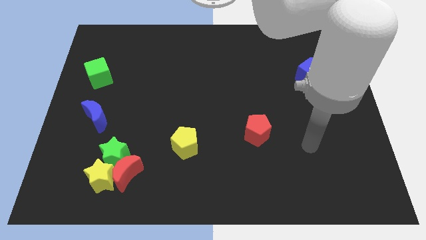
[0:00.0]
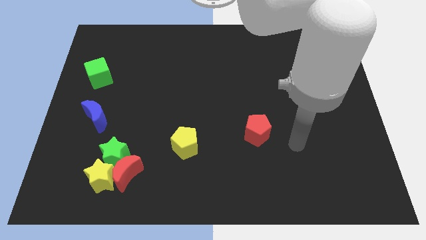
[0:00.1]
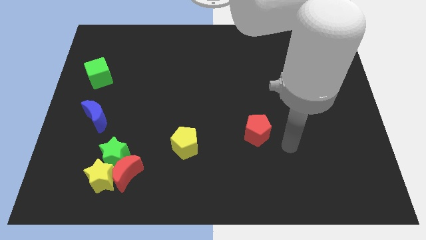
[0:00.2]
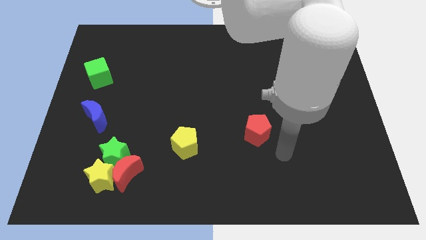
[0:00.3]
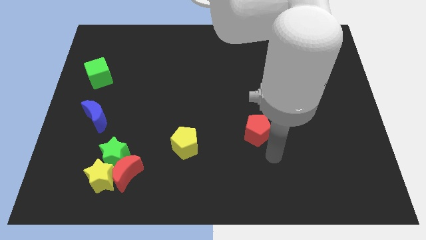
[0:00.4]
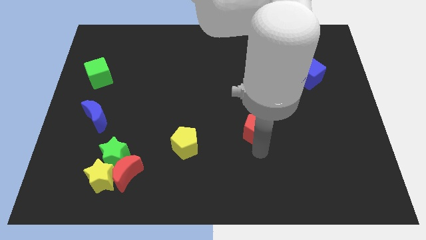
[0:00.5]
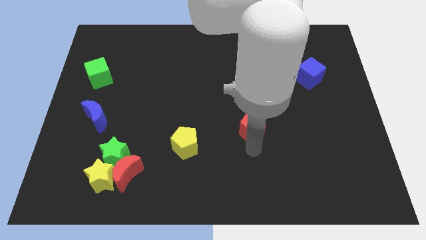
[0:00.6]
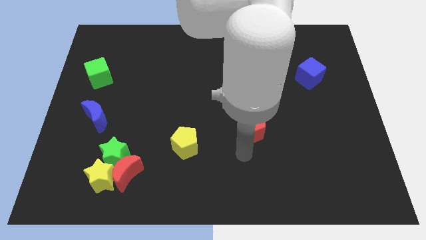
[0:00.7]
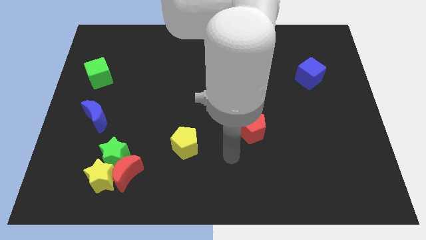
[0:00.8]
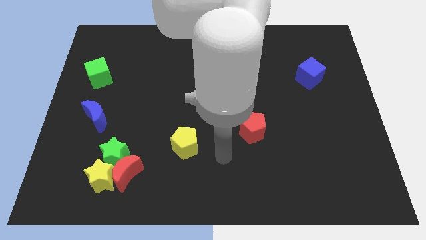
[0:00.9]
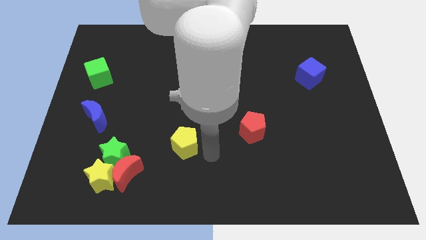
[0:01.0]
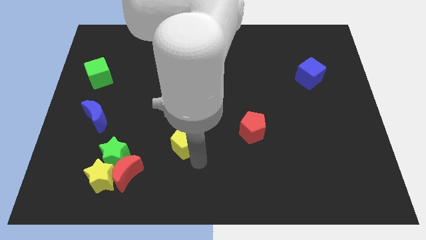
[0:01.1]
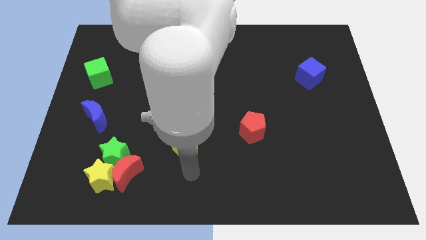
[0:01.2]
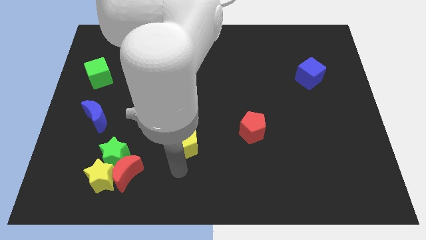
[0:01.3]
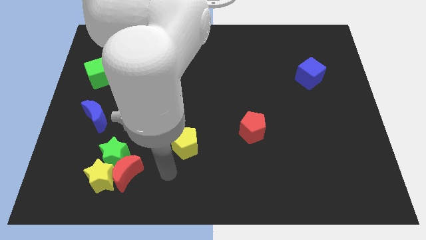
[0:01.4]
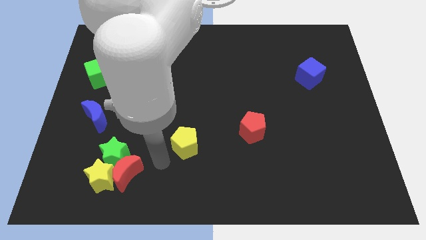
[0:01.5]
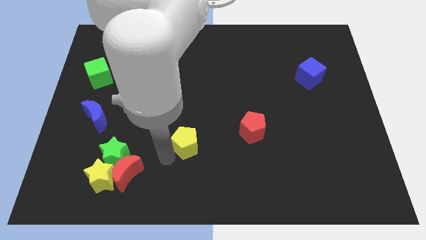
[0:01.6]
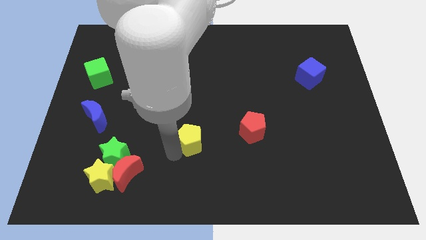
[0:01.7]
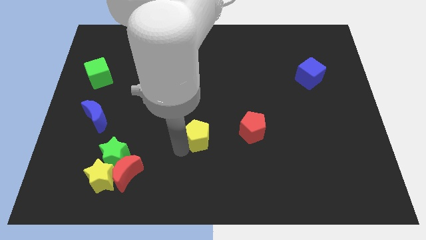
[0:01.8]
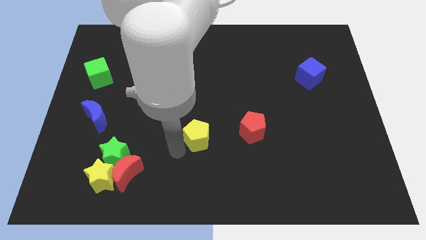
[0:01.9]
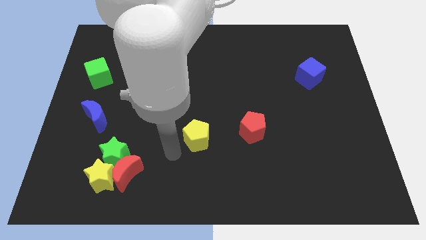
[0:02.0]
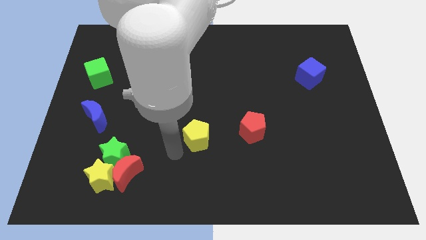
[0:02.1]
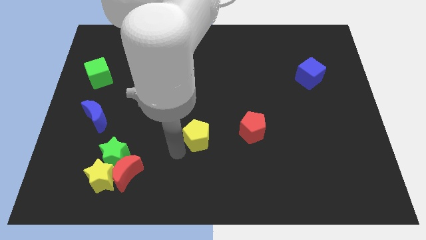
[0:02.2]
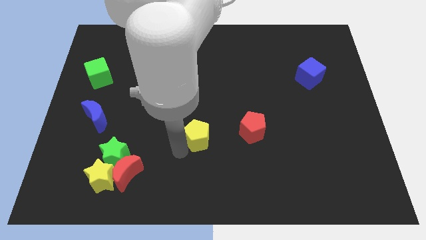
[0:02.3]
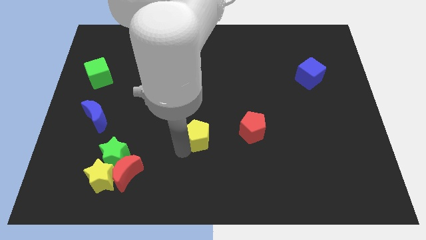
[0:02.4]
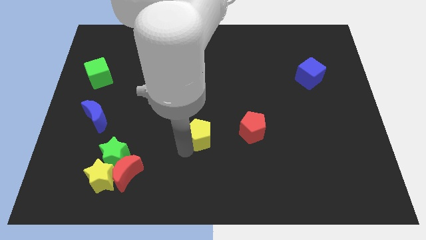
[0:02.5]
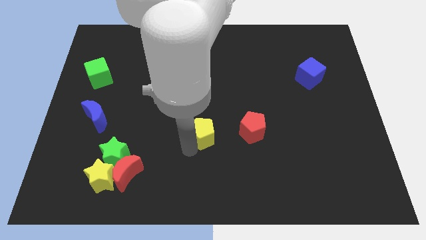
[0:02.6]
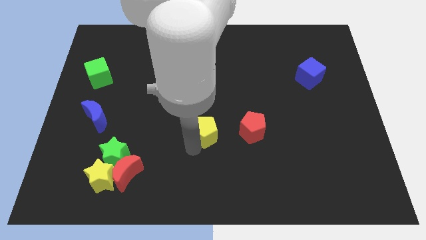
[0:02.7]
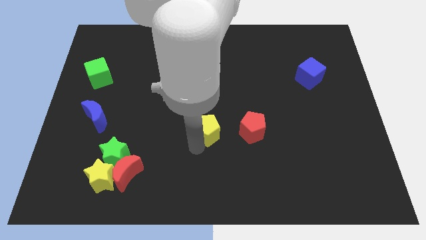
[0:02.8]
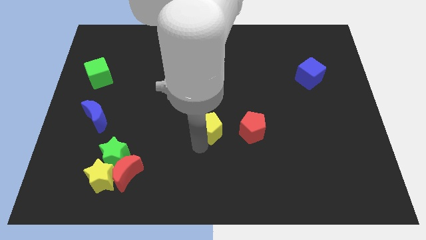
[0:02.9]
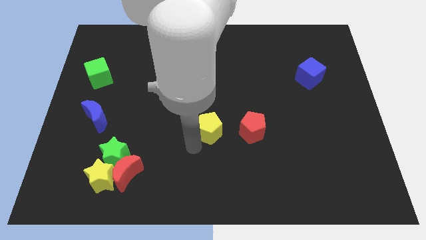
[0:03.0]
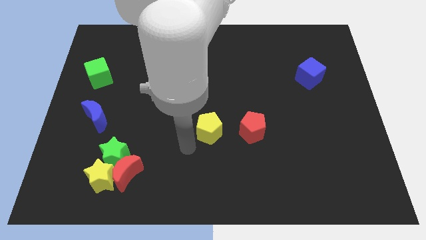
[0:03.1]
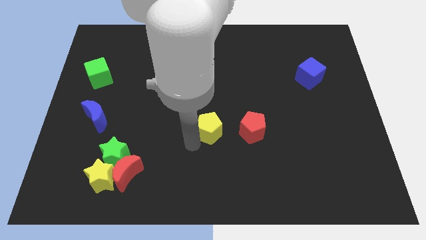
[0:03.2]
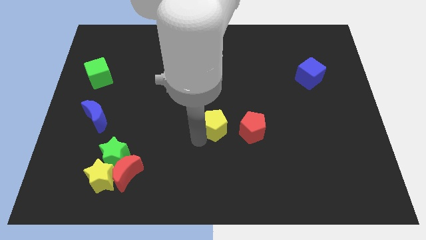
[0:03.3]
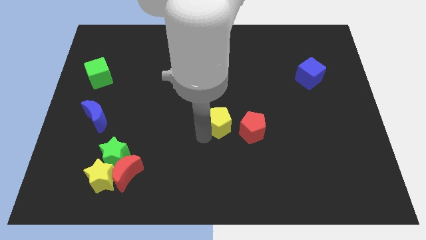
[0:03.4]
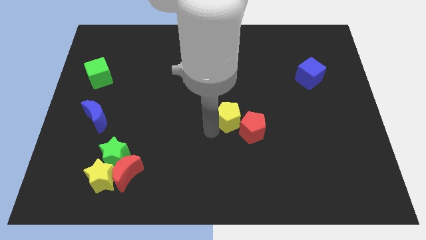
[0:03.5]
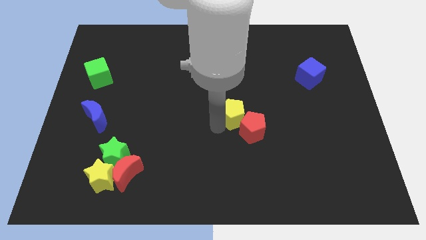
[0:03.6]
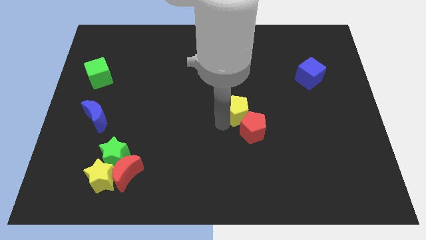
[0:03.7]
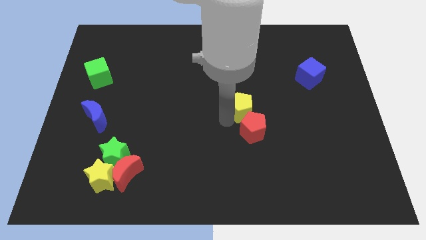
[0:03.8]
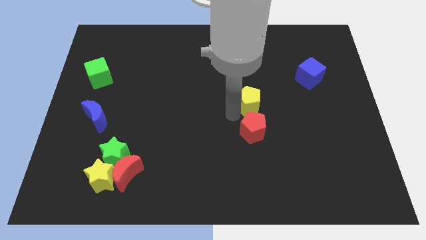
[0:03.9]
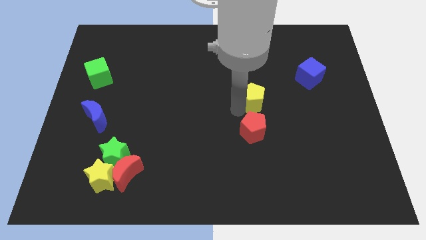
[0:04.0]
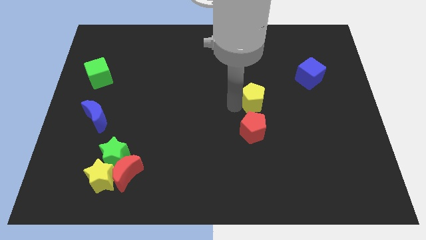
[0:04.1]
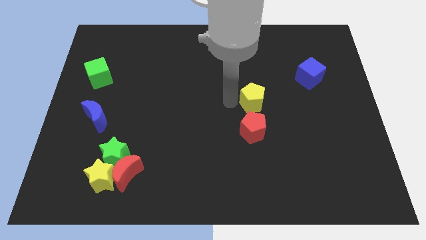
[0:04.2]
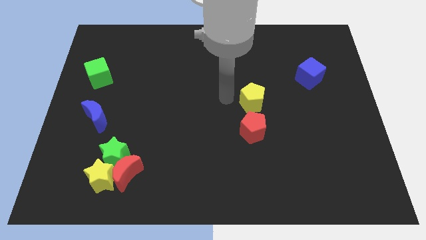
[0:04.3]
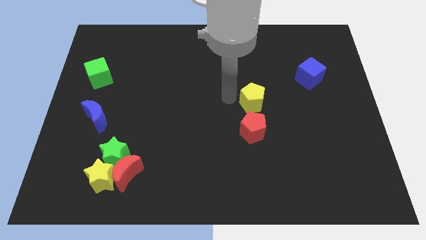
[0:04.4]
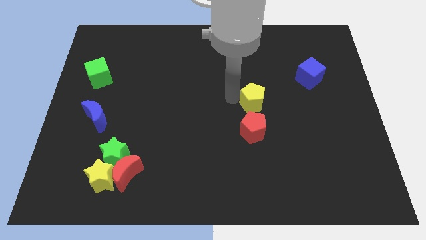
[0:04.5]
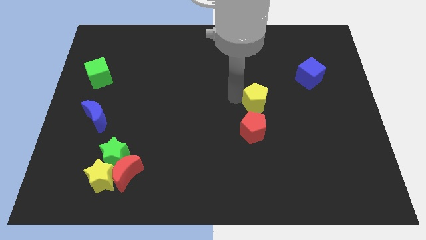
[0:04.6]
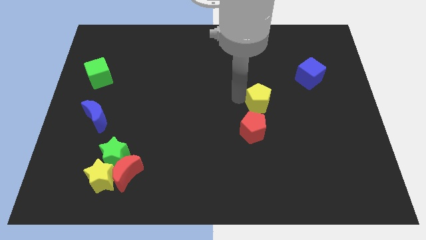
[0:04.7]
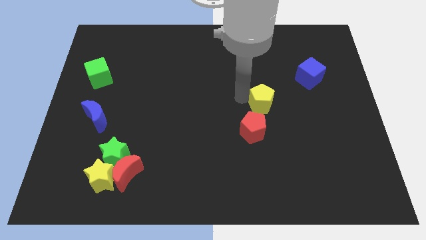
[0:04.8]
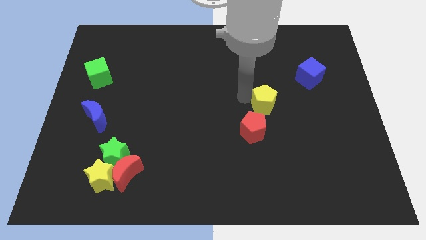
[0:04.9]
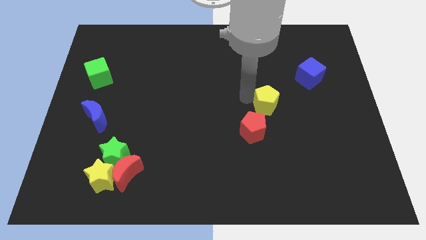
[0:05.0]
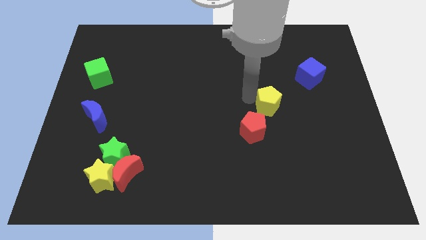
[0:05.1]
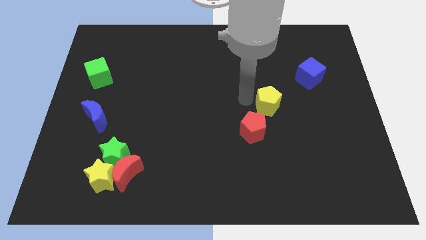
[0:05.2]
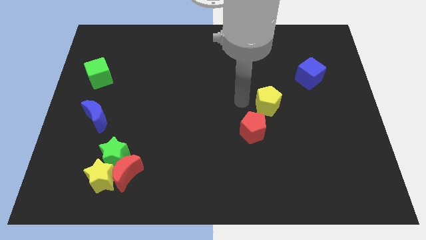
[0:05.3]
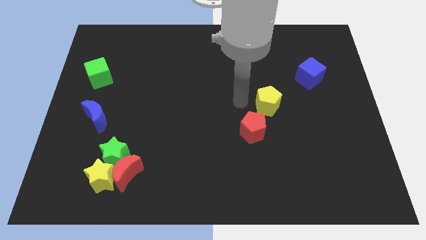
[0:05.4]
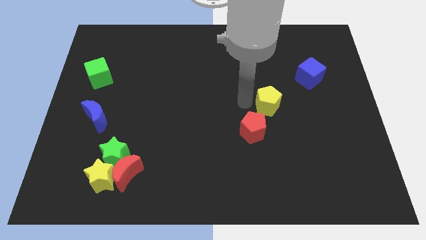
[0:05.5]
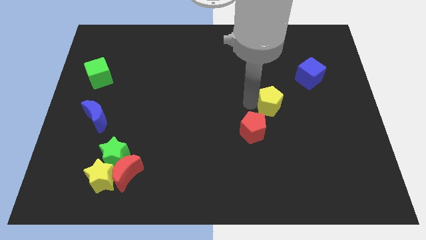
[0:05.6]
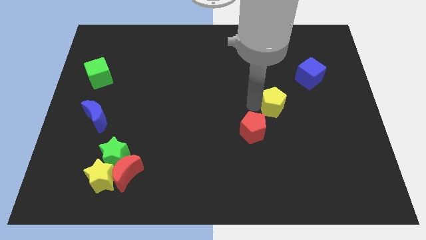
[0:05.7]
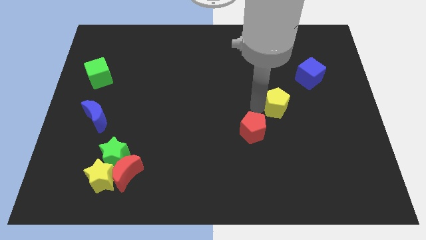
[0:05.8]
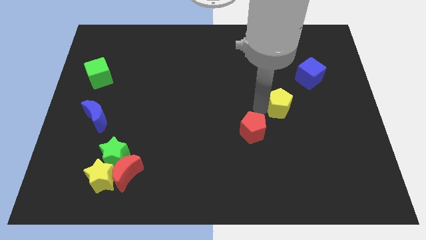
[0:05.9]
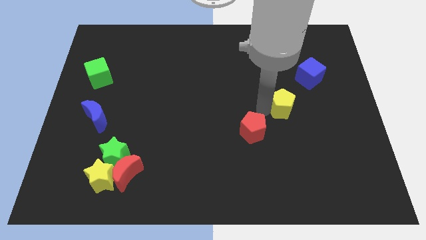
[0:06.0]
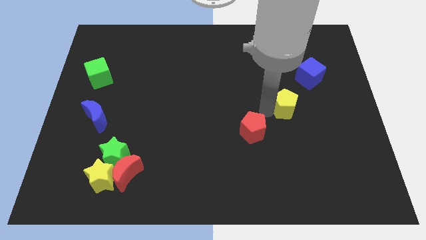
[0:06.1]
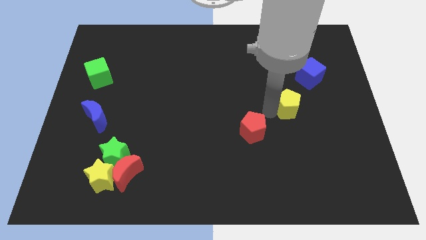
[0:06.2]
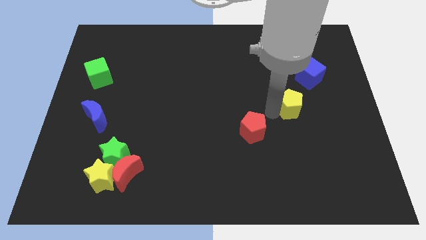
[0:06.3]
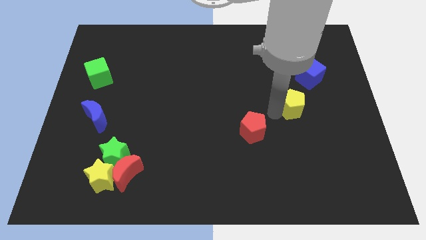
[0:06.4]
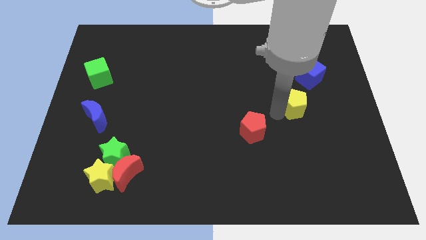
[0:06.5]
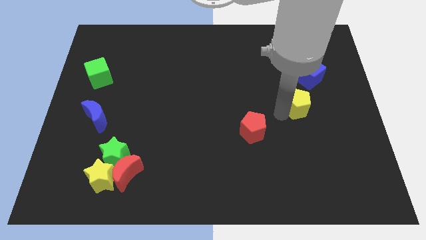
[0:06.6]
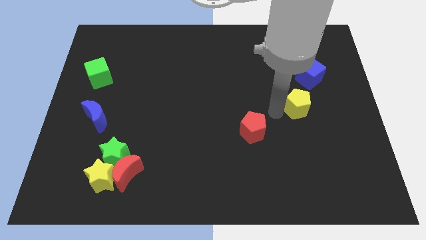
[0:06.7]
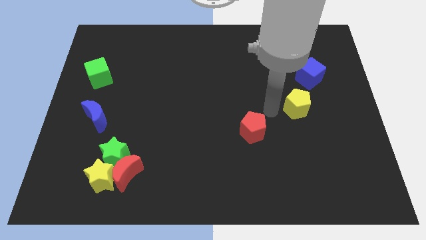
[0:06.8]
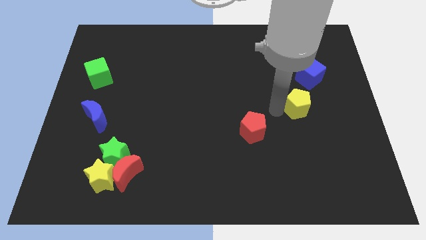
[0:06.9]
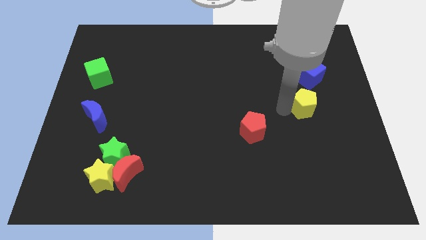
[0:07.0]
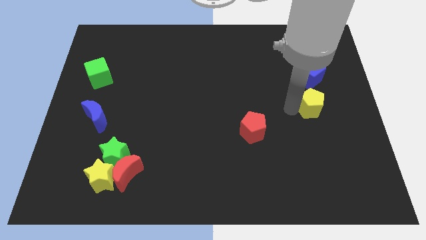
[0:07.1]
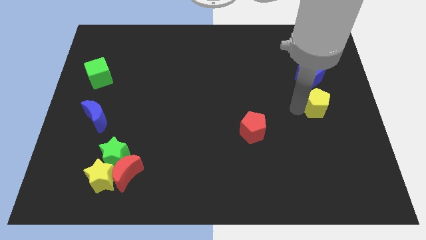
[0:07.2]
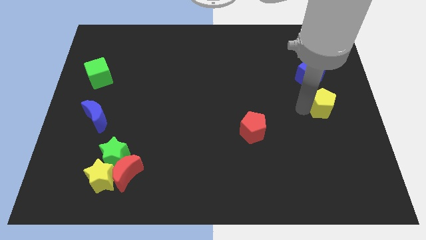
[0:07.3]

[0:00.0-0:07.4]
move the yellow pentagon to the right side
